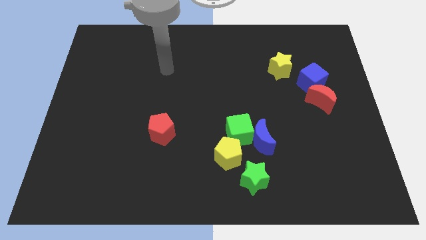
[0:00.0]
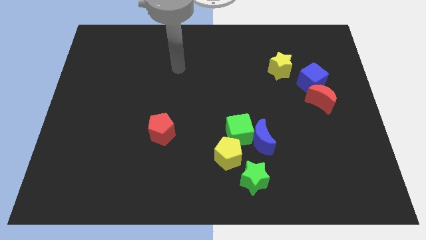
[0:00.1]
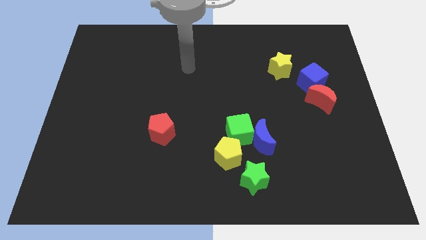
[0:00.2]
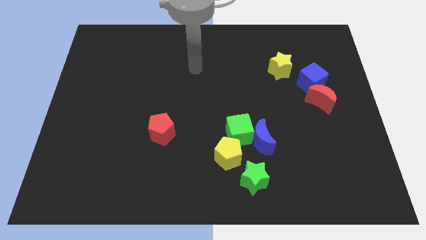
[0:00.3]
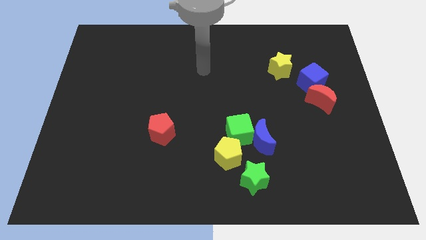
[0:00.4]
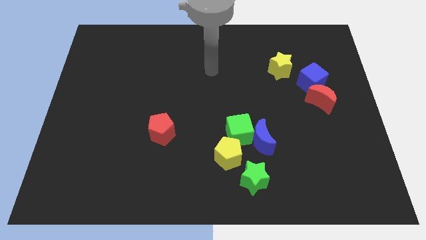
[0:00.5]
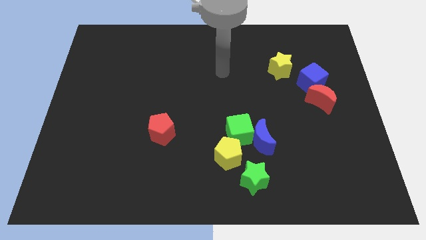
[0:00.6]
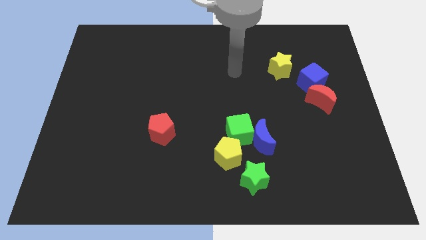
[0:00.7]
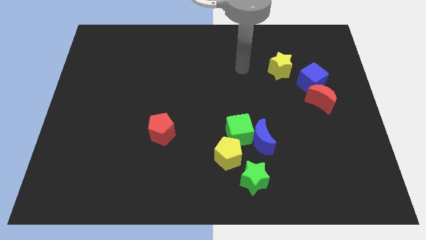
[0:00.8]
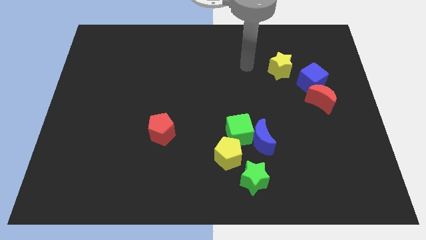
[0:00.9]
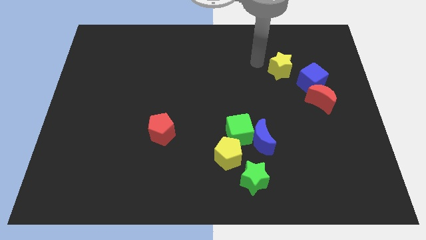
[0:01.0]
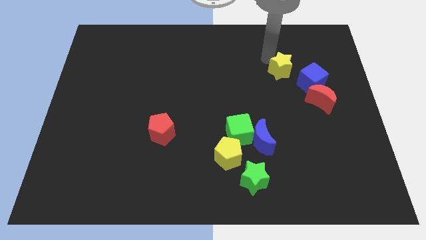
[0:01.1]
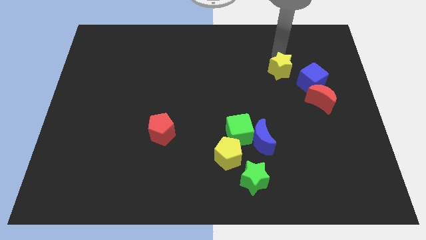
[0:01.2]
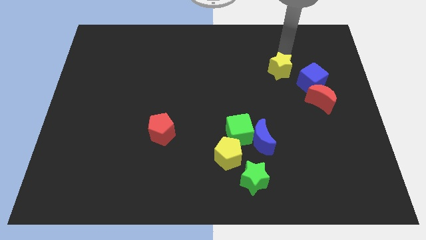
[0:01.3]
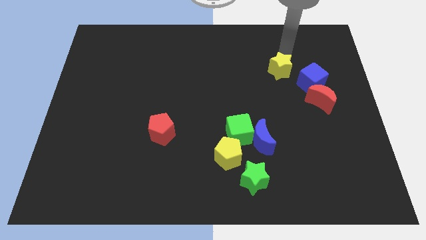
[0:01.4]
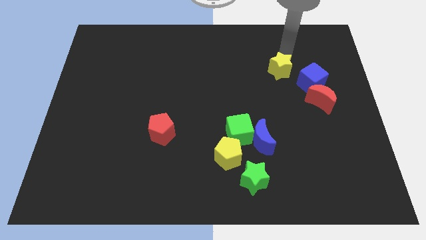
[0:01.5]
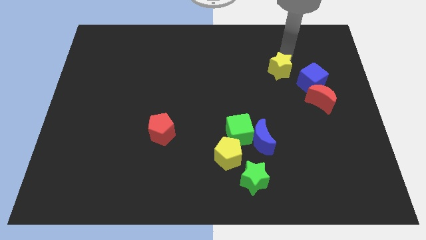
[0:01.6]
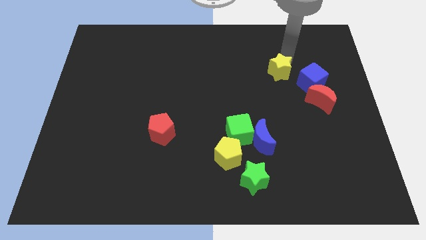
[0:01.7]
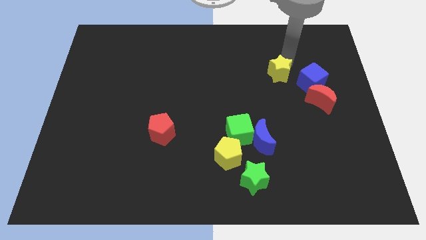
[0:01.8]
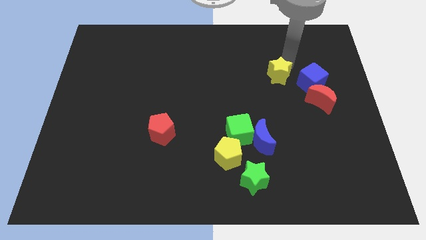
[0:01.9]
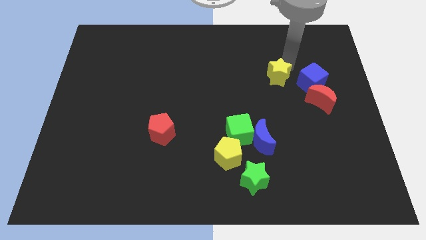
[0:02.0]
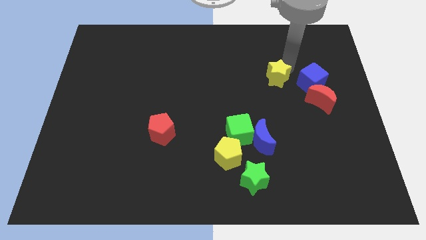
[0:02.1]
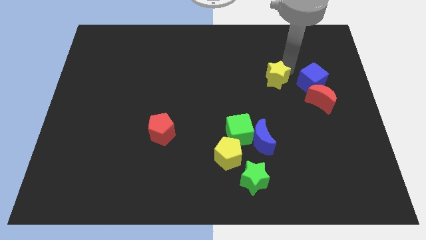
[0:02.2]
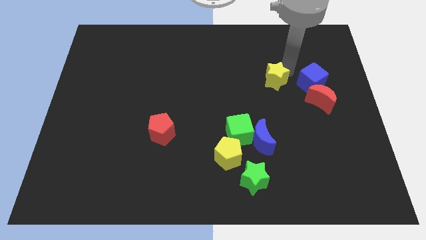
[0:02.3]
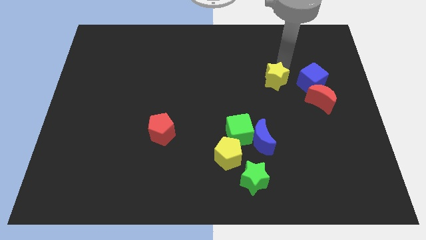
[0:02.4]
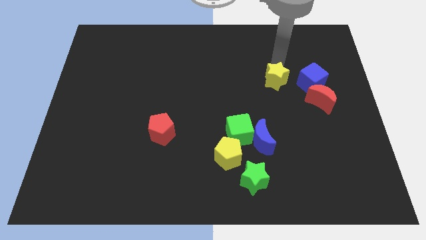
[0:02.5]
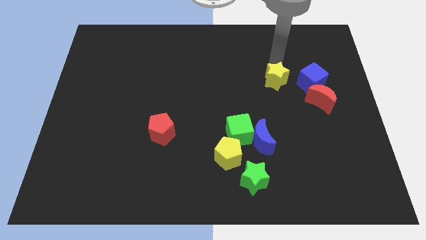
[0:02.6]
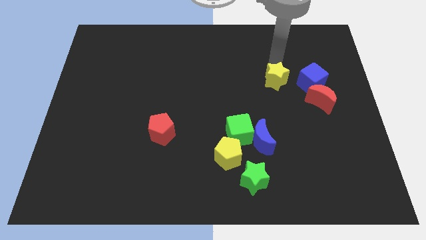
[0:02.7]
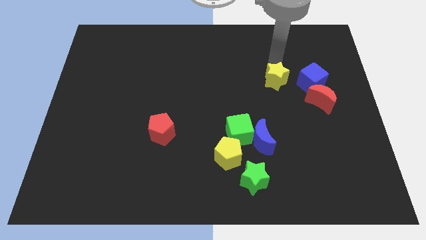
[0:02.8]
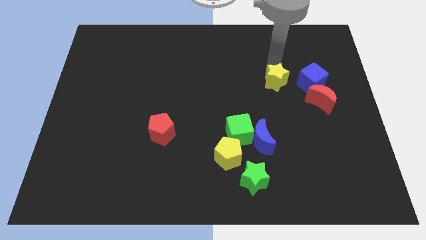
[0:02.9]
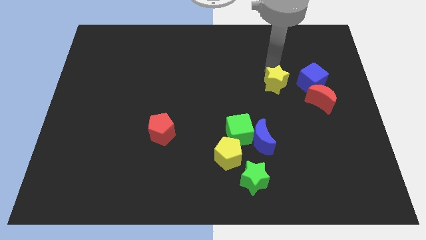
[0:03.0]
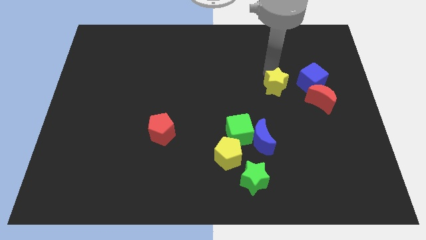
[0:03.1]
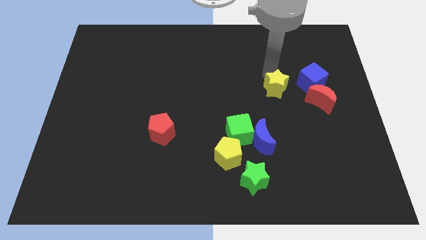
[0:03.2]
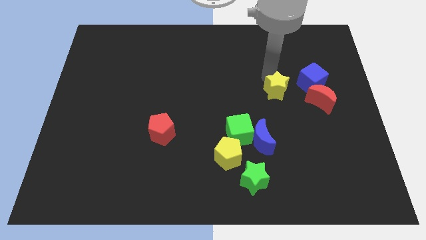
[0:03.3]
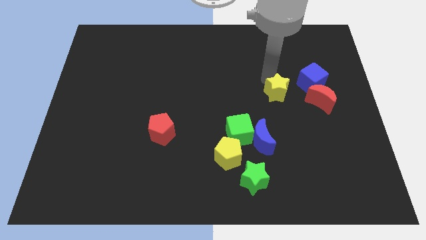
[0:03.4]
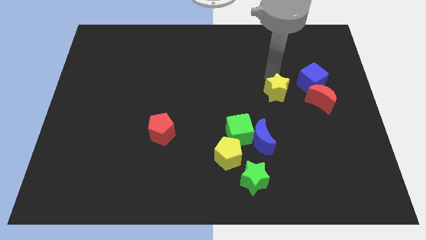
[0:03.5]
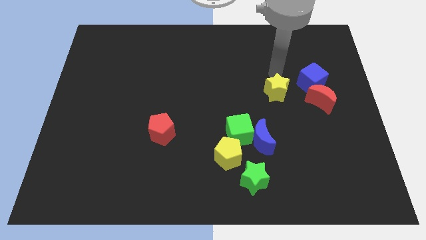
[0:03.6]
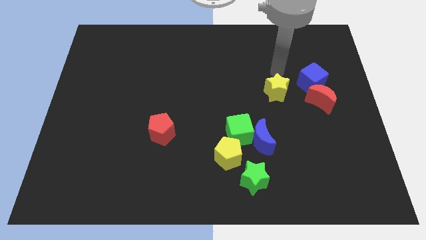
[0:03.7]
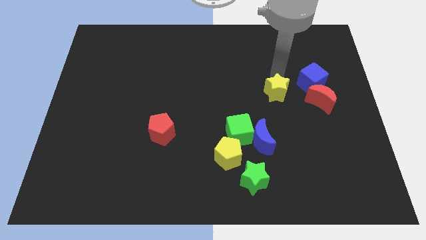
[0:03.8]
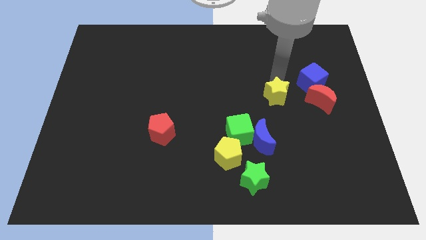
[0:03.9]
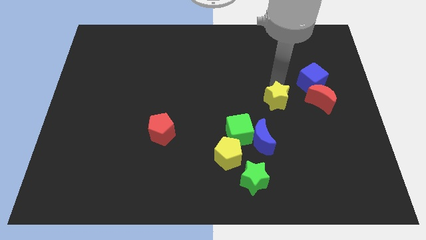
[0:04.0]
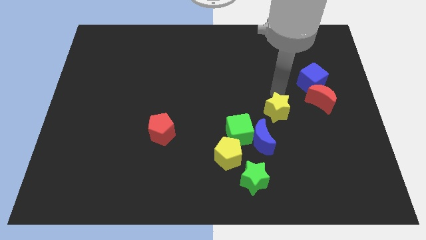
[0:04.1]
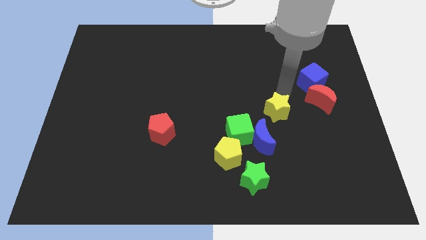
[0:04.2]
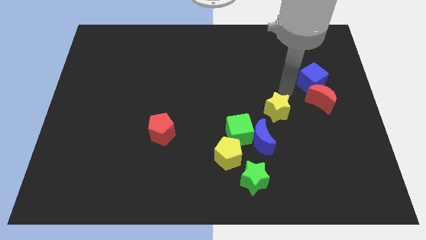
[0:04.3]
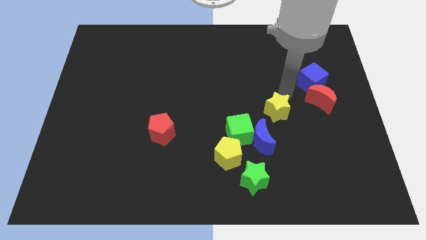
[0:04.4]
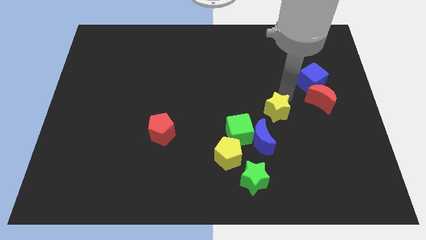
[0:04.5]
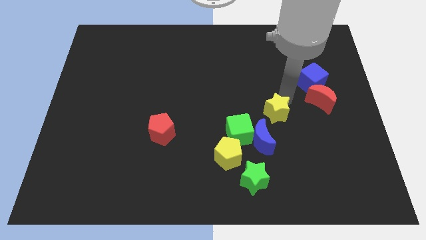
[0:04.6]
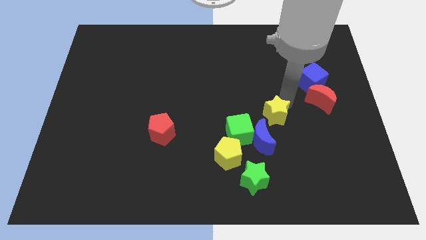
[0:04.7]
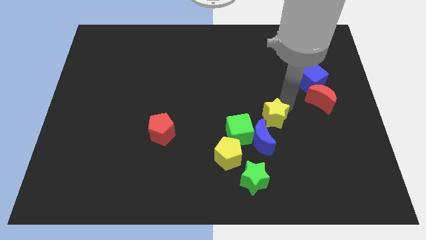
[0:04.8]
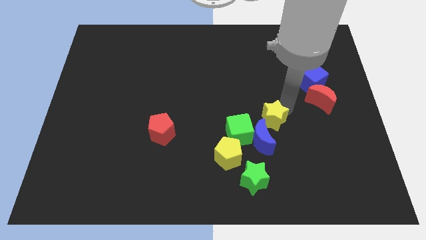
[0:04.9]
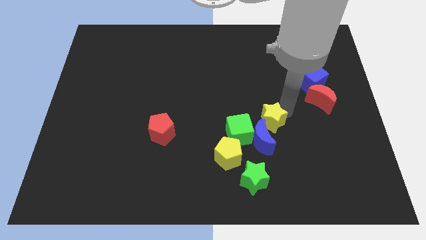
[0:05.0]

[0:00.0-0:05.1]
slide the yellow star close to the blue moon

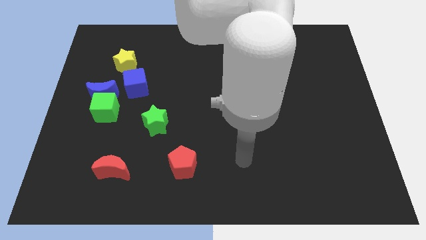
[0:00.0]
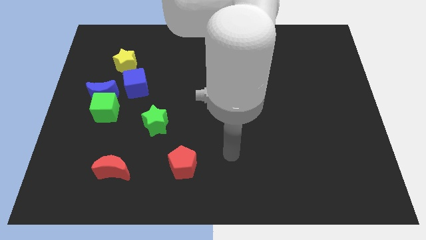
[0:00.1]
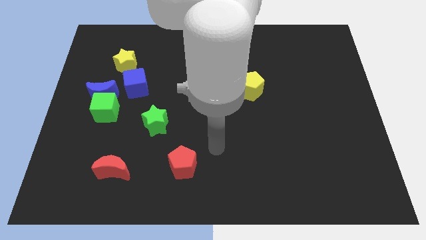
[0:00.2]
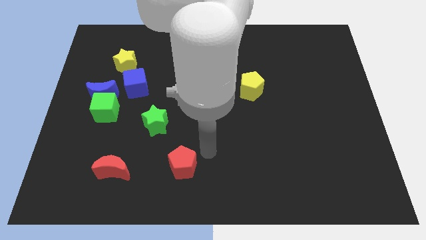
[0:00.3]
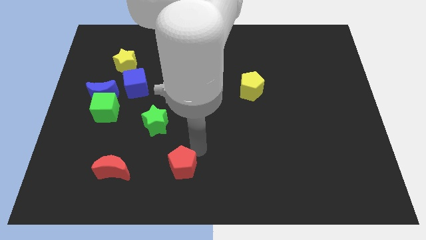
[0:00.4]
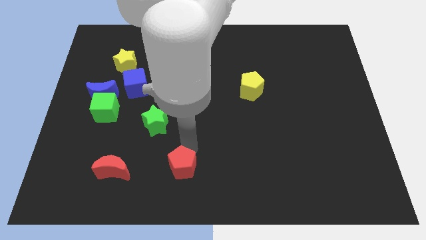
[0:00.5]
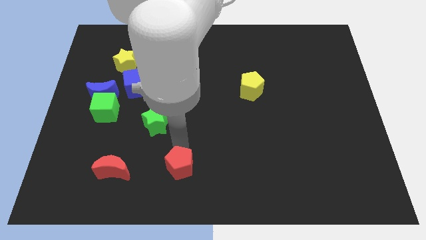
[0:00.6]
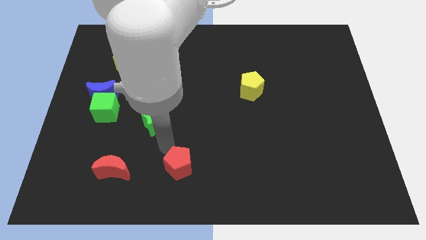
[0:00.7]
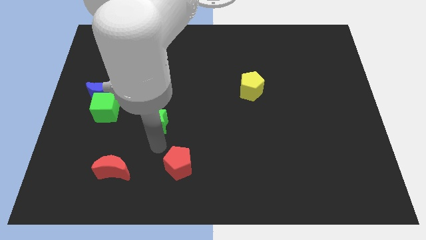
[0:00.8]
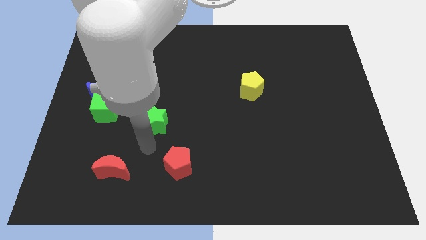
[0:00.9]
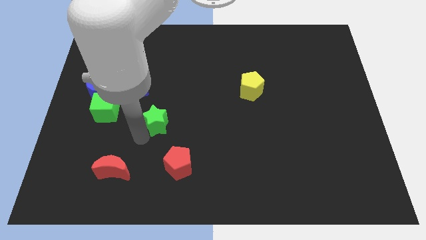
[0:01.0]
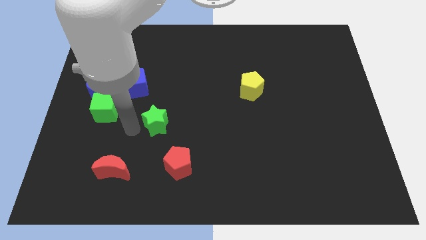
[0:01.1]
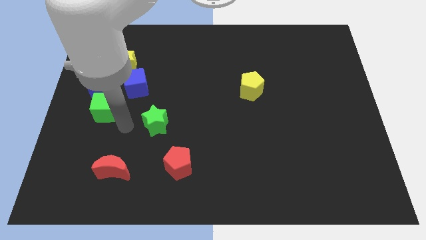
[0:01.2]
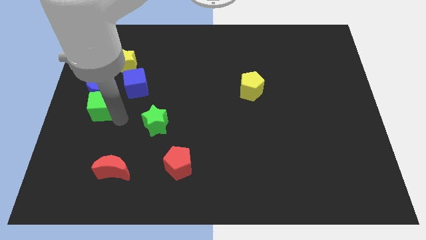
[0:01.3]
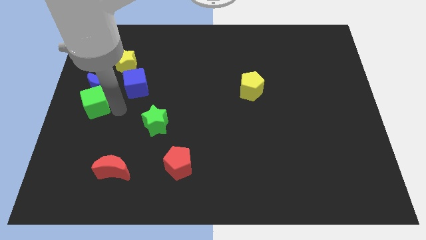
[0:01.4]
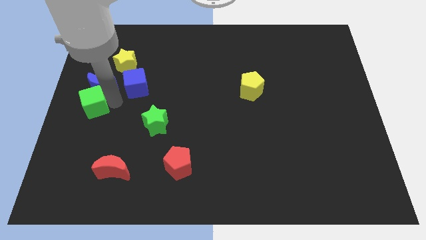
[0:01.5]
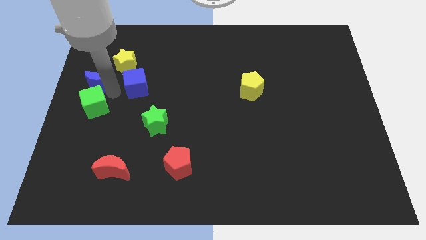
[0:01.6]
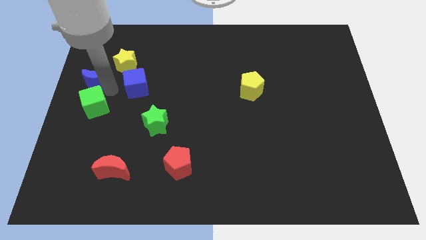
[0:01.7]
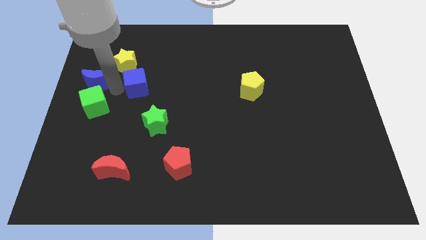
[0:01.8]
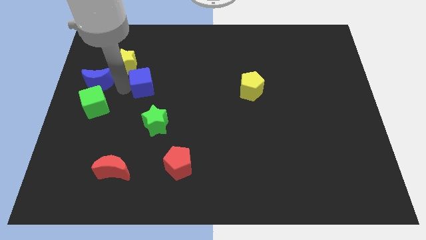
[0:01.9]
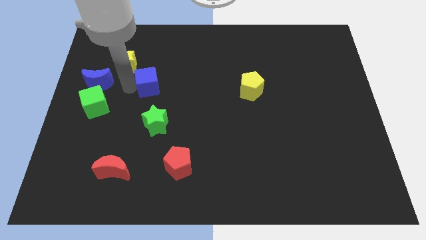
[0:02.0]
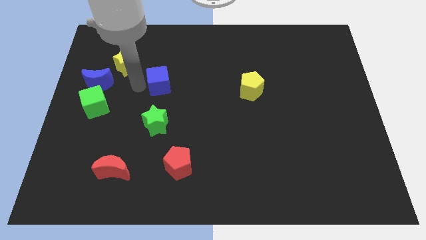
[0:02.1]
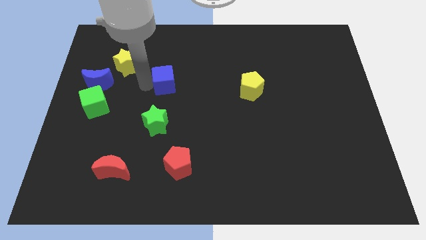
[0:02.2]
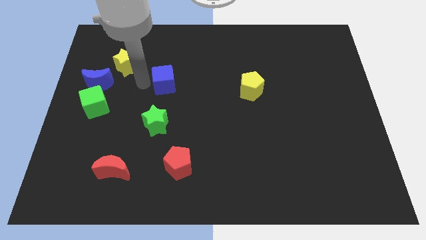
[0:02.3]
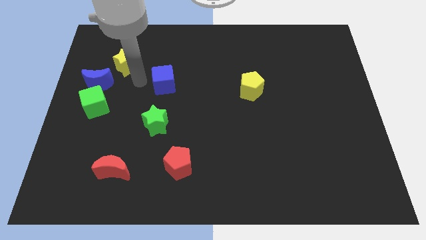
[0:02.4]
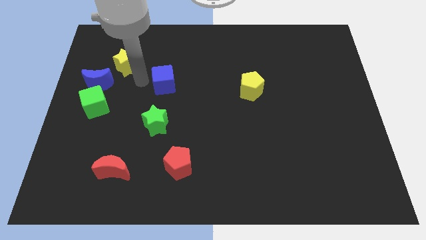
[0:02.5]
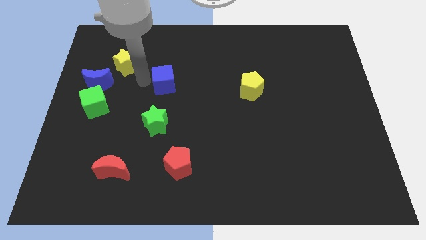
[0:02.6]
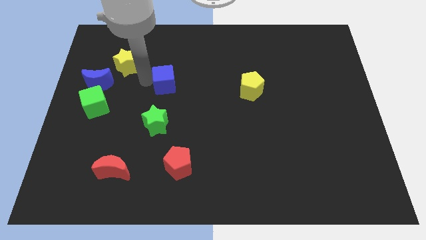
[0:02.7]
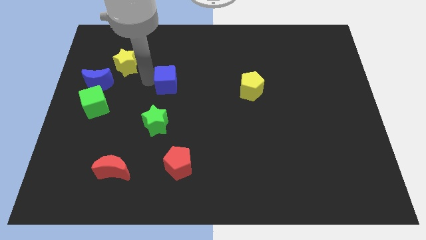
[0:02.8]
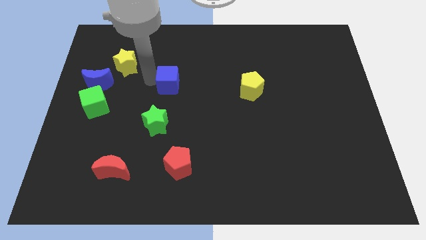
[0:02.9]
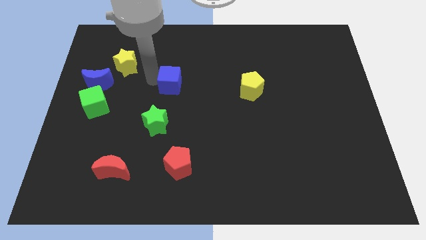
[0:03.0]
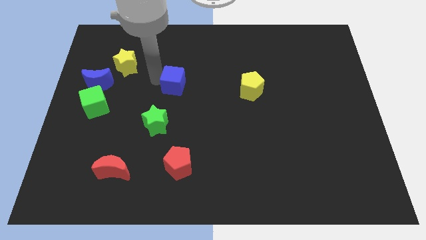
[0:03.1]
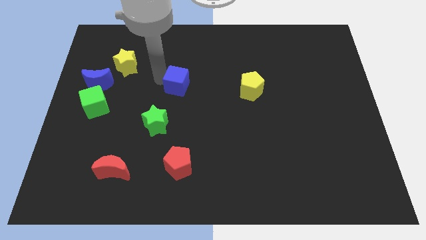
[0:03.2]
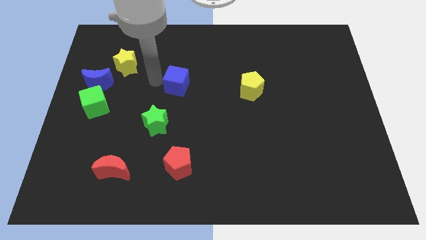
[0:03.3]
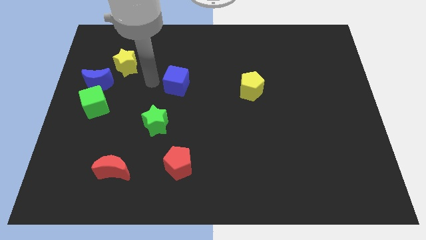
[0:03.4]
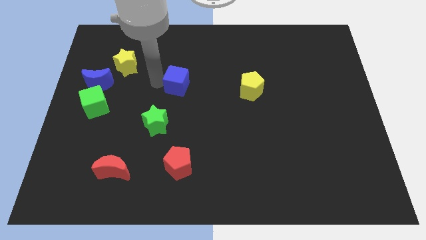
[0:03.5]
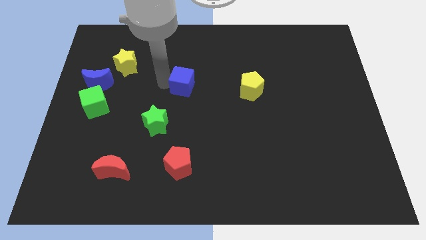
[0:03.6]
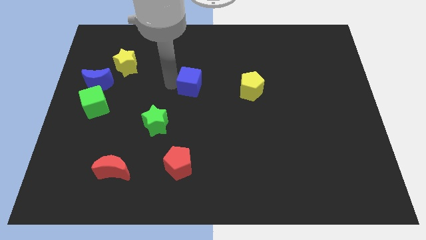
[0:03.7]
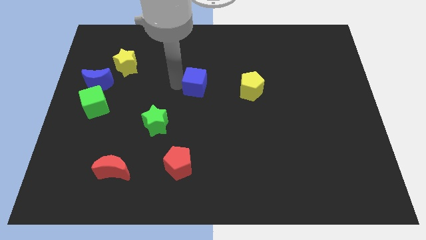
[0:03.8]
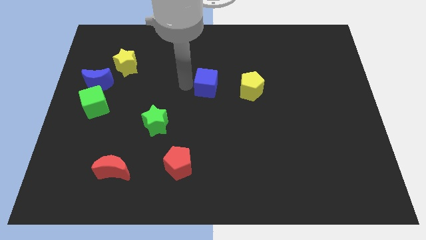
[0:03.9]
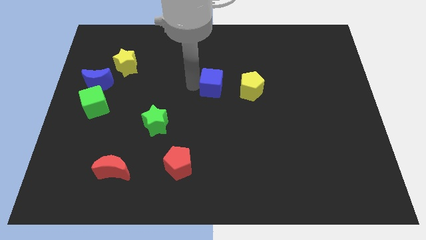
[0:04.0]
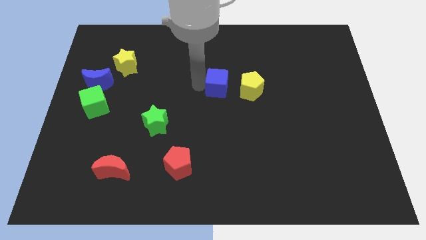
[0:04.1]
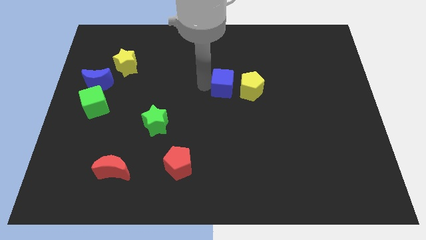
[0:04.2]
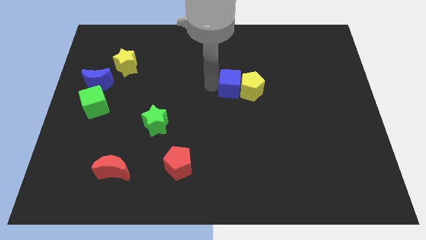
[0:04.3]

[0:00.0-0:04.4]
put the blue cube towards the yellow pentagon
